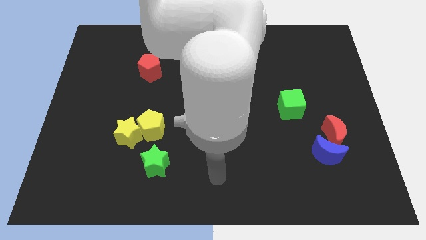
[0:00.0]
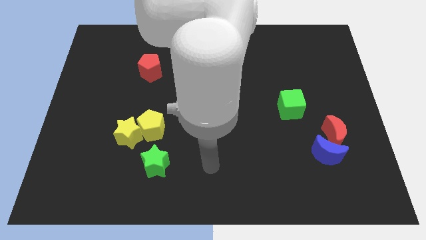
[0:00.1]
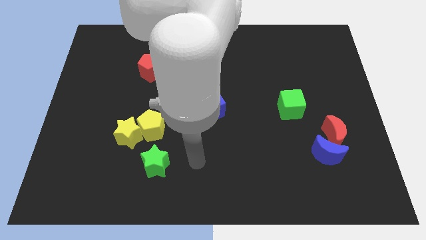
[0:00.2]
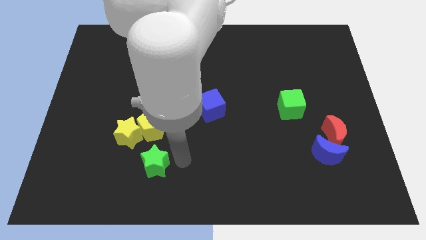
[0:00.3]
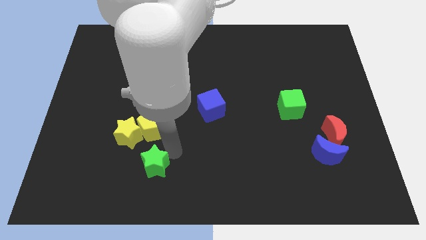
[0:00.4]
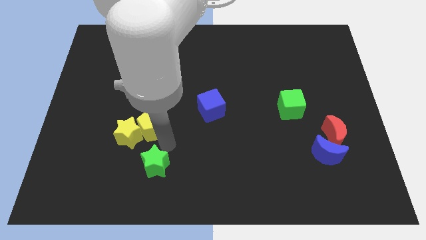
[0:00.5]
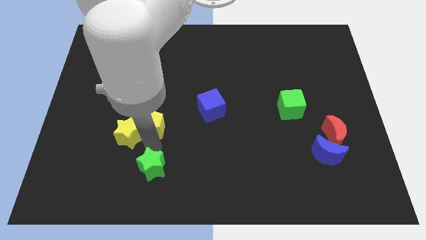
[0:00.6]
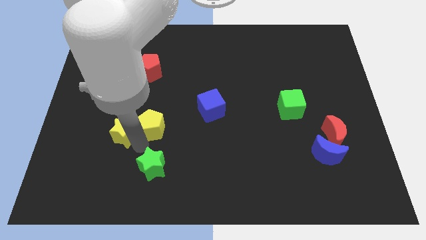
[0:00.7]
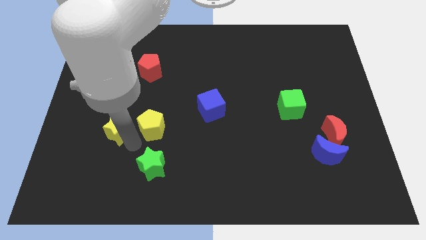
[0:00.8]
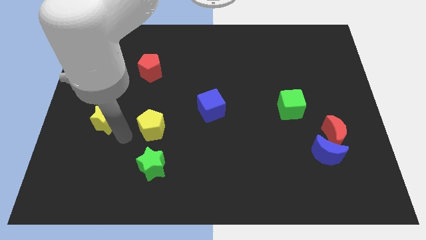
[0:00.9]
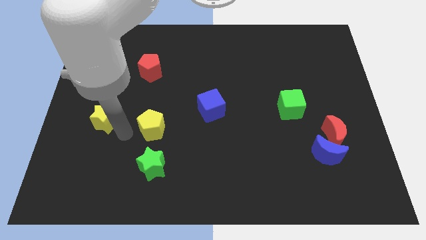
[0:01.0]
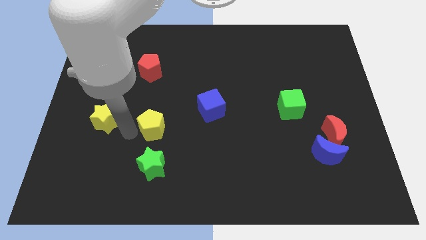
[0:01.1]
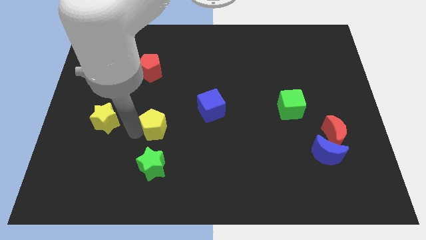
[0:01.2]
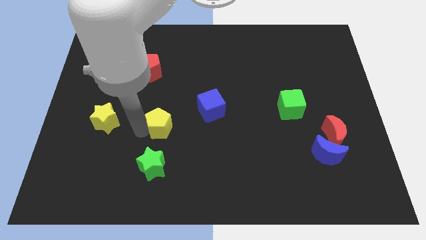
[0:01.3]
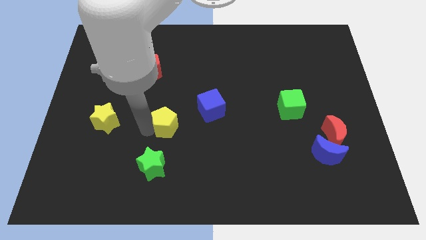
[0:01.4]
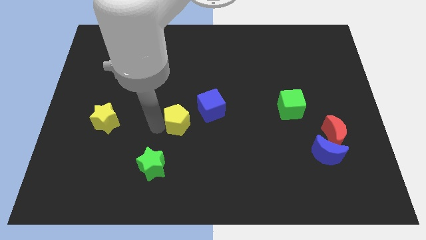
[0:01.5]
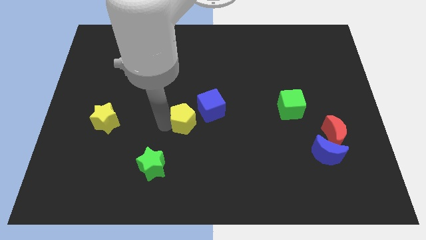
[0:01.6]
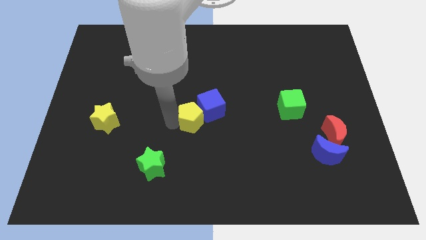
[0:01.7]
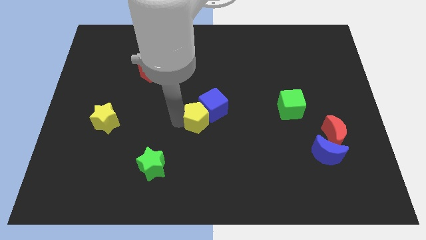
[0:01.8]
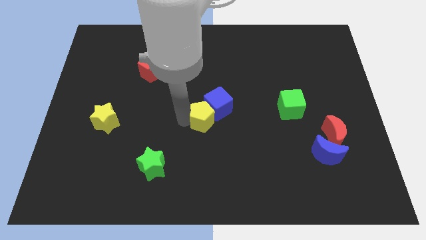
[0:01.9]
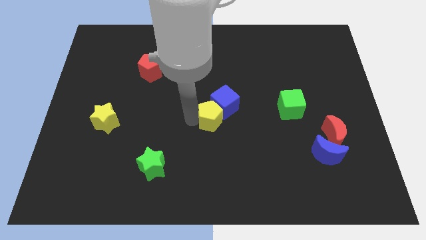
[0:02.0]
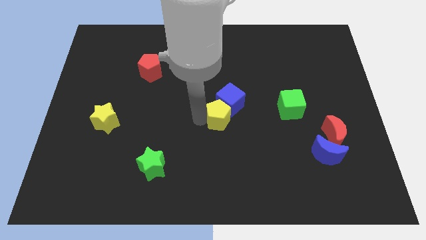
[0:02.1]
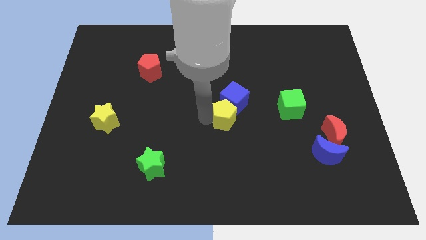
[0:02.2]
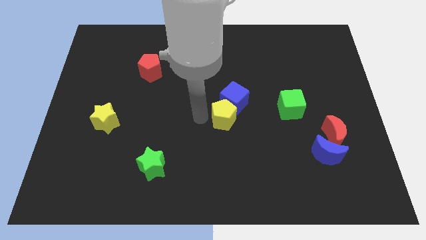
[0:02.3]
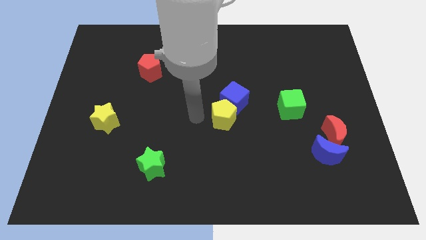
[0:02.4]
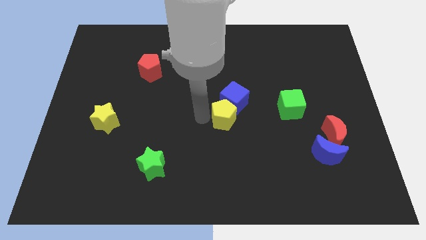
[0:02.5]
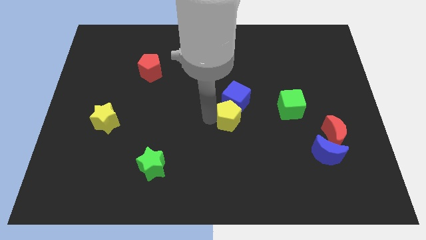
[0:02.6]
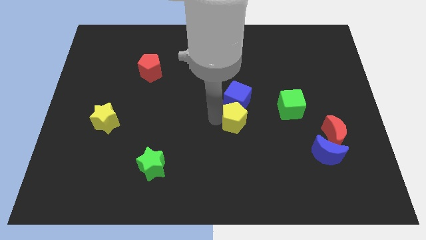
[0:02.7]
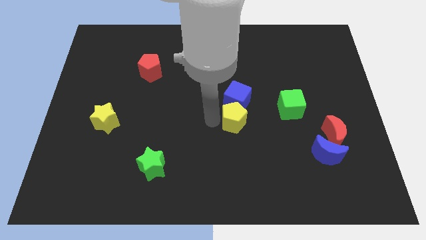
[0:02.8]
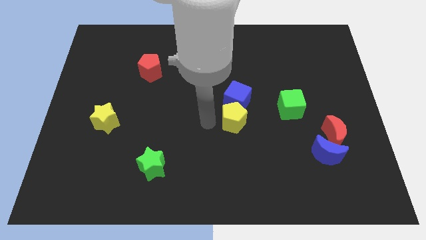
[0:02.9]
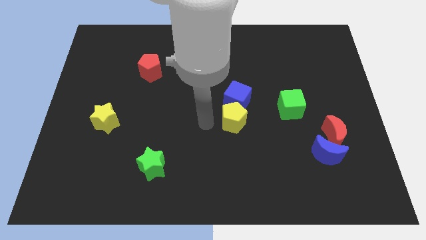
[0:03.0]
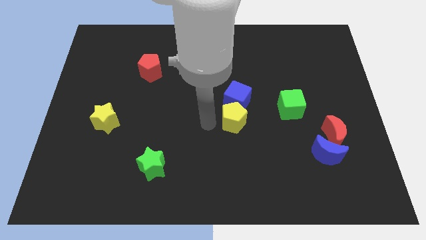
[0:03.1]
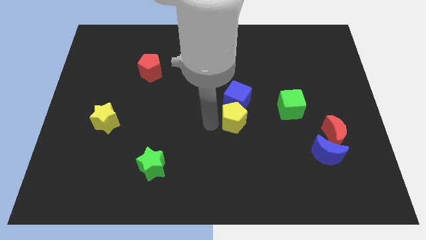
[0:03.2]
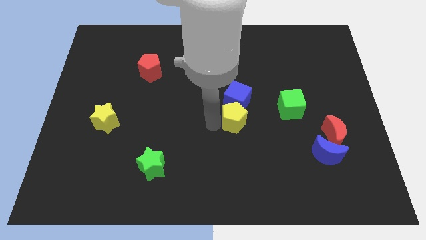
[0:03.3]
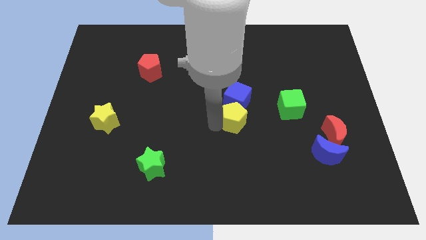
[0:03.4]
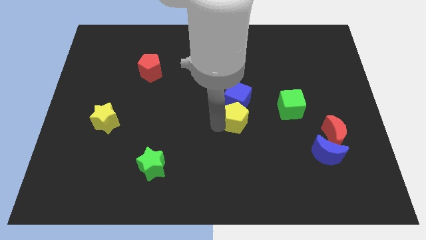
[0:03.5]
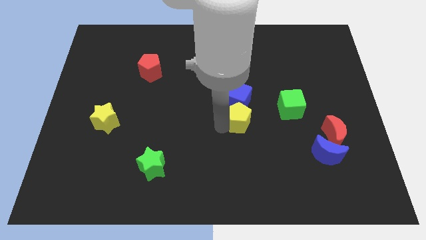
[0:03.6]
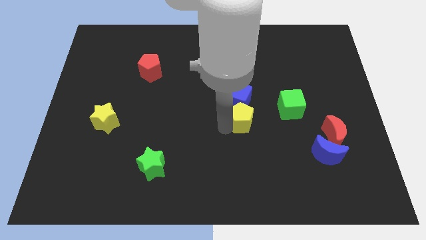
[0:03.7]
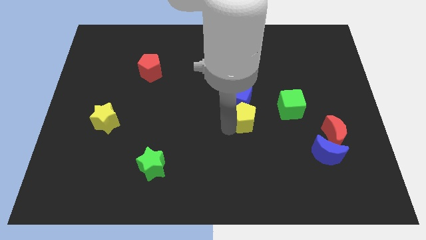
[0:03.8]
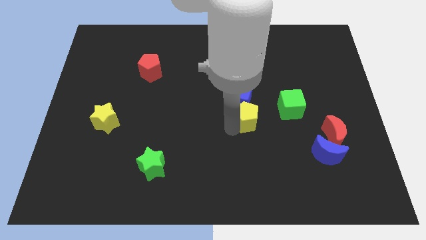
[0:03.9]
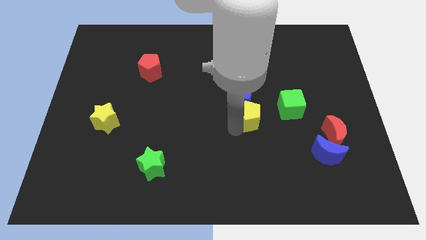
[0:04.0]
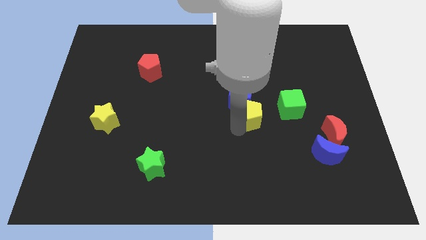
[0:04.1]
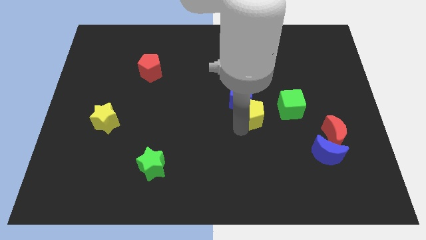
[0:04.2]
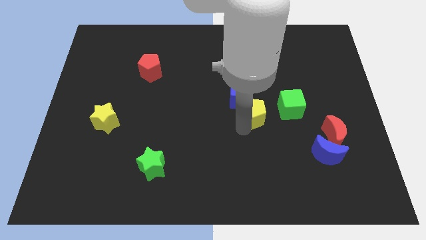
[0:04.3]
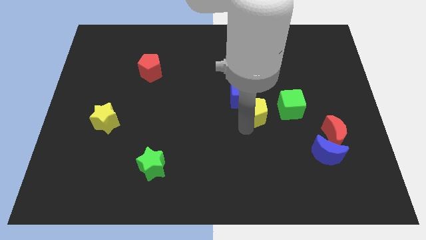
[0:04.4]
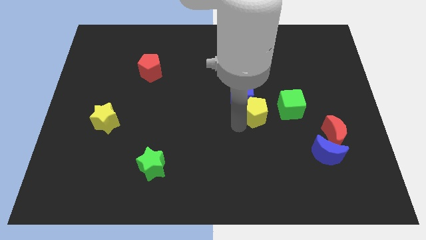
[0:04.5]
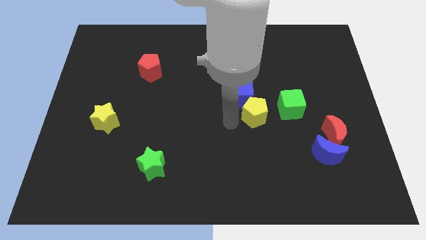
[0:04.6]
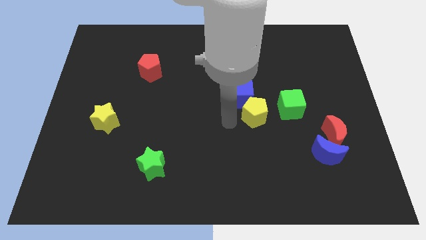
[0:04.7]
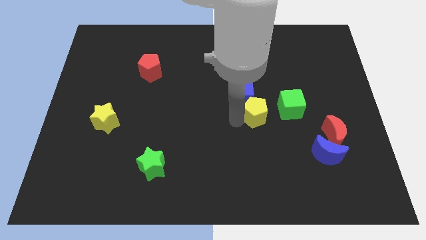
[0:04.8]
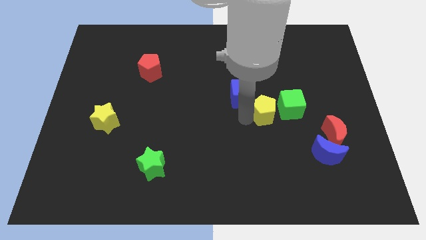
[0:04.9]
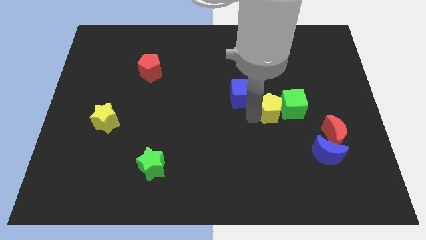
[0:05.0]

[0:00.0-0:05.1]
push the yellow pentagon to the green cube

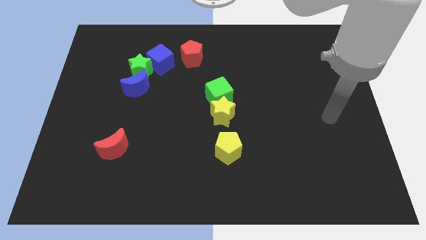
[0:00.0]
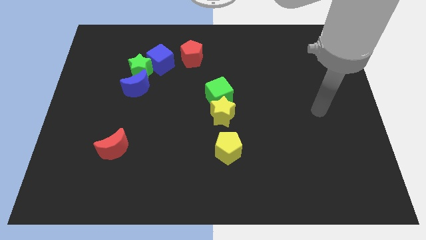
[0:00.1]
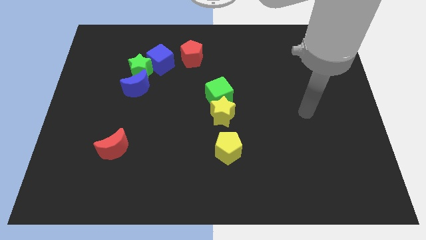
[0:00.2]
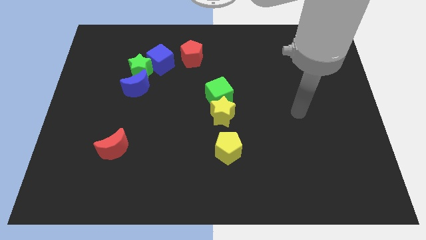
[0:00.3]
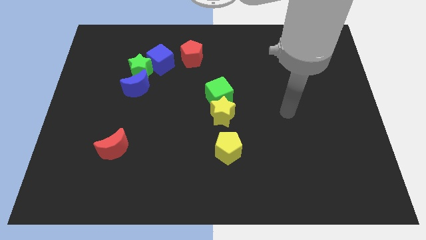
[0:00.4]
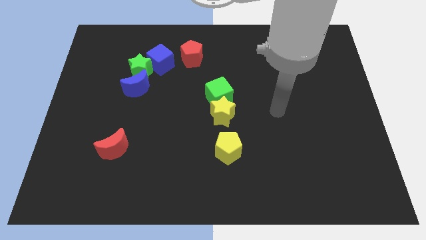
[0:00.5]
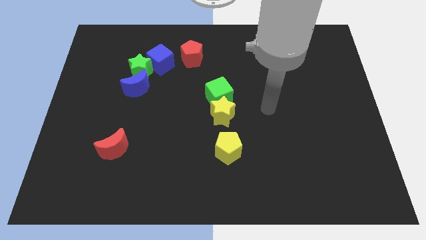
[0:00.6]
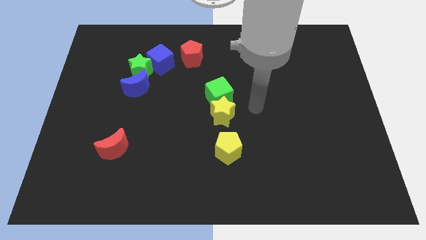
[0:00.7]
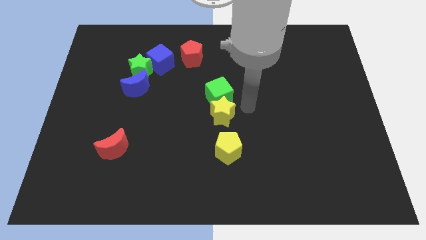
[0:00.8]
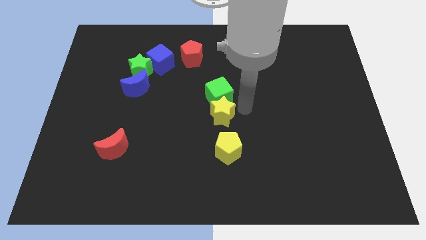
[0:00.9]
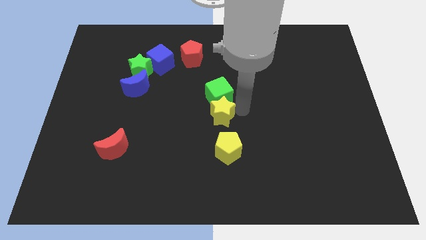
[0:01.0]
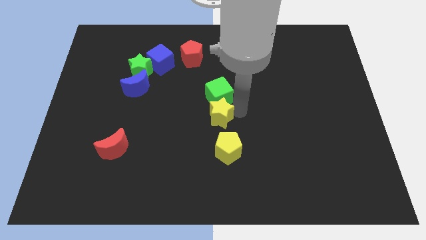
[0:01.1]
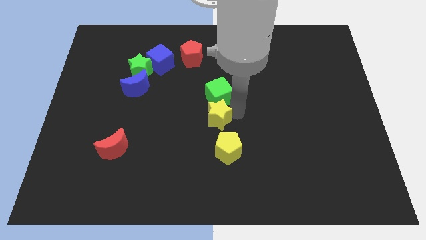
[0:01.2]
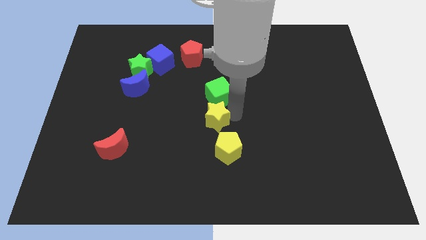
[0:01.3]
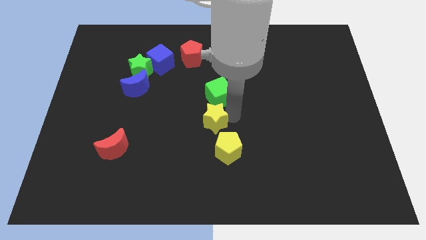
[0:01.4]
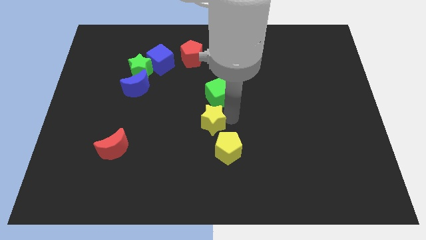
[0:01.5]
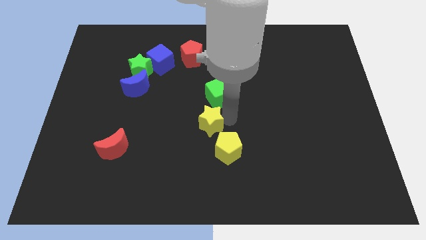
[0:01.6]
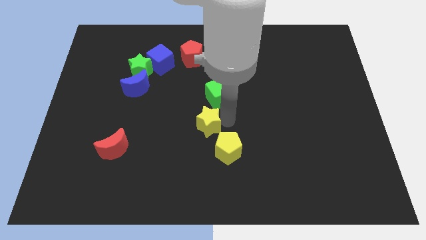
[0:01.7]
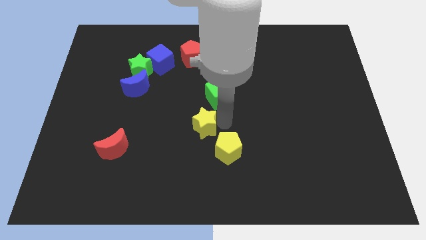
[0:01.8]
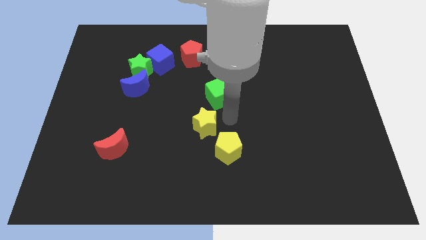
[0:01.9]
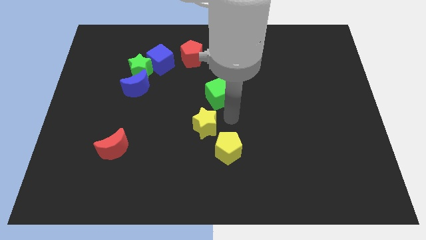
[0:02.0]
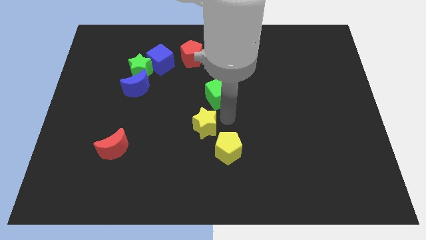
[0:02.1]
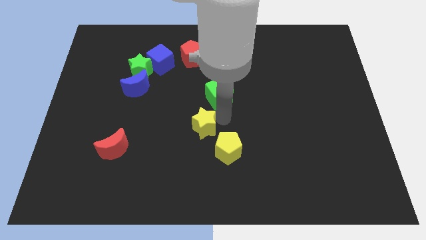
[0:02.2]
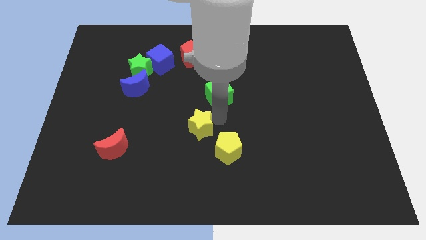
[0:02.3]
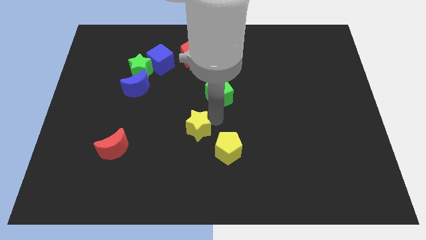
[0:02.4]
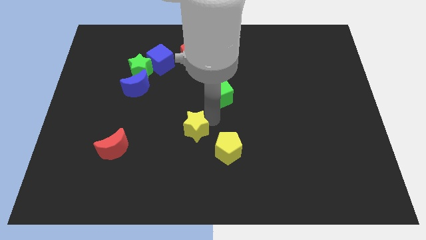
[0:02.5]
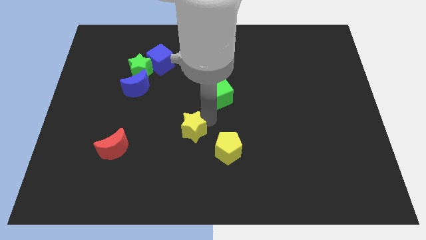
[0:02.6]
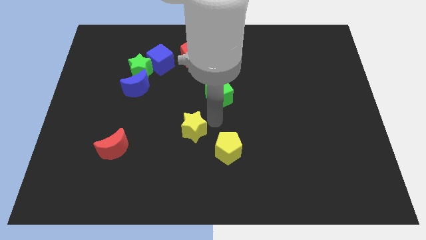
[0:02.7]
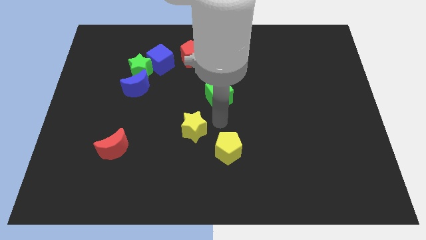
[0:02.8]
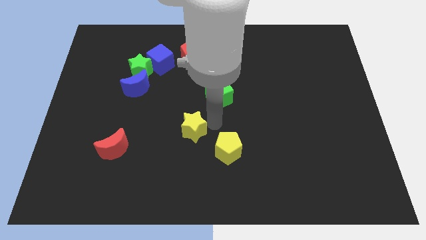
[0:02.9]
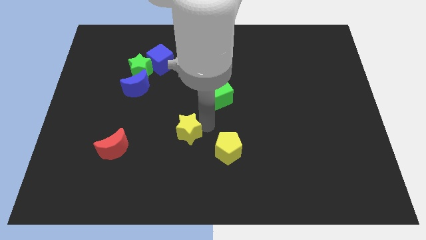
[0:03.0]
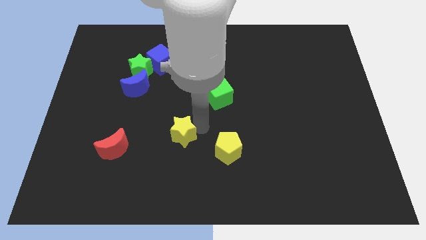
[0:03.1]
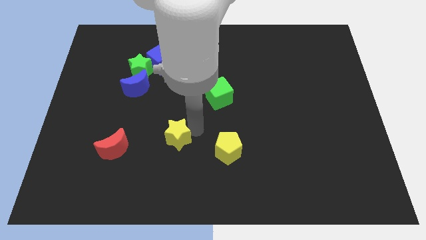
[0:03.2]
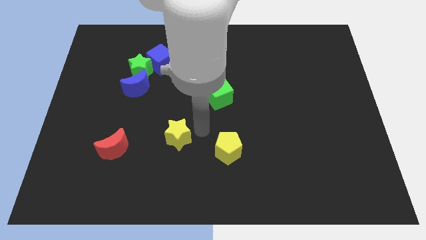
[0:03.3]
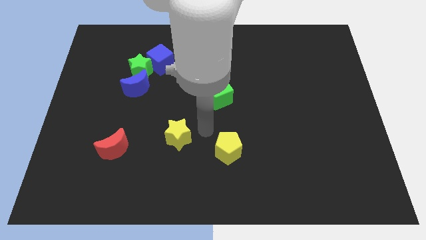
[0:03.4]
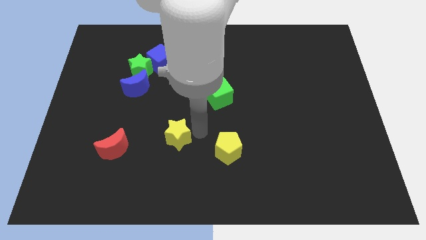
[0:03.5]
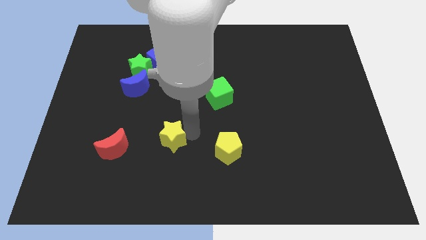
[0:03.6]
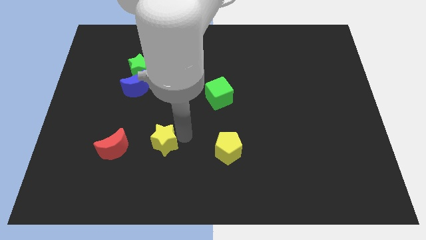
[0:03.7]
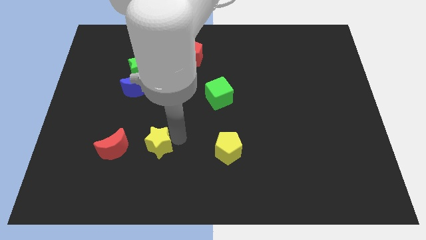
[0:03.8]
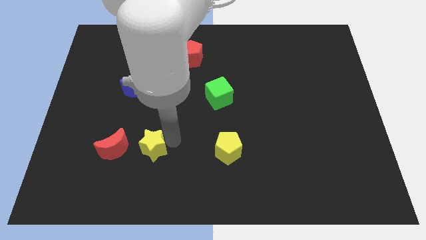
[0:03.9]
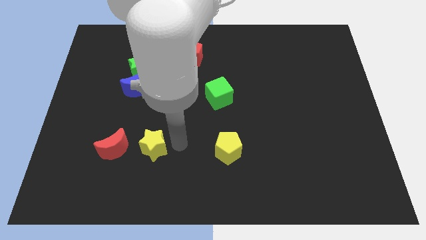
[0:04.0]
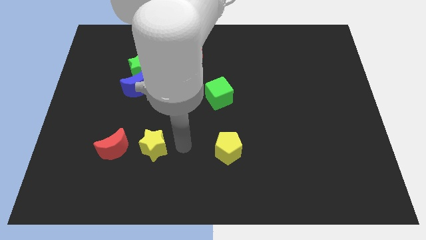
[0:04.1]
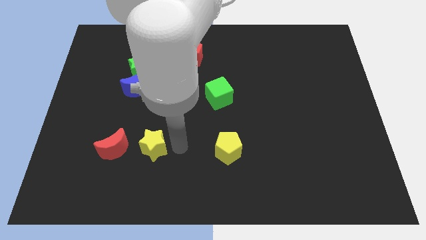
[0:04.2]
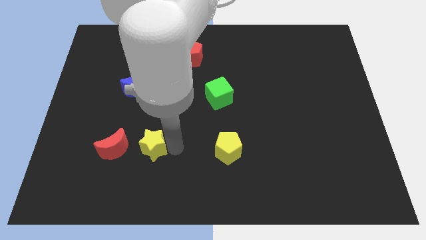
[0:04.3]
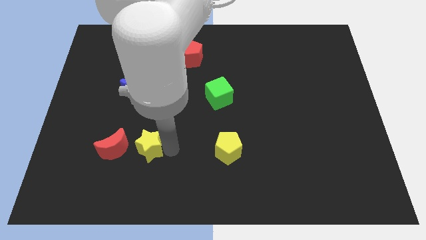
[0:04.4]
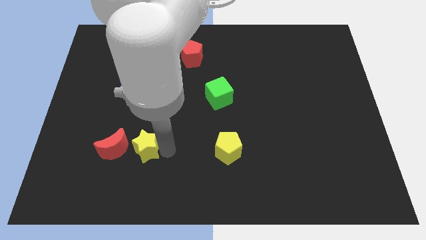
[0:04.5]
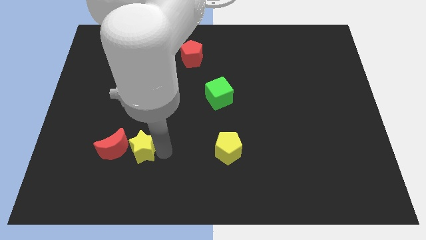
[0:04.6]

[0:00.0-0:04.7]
slide the yellow star to the red moon
